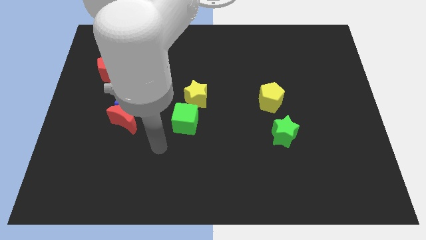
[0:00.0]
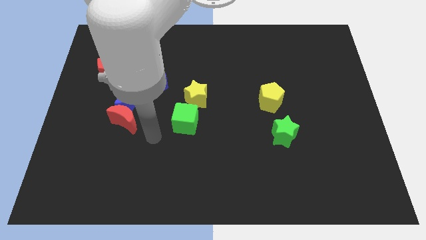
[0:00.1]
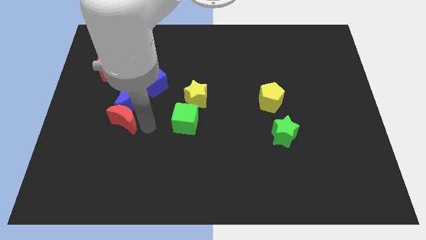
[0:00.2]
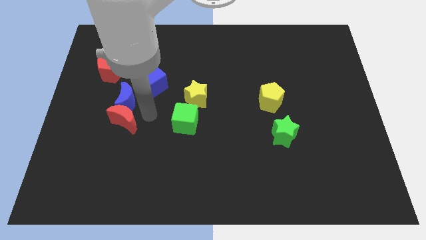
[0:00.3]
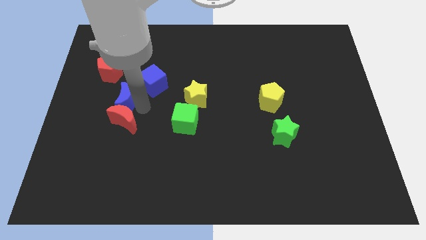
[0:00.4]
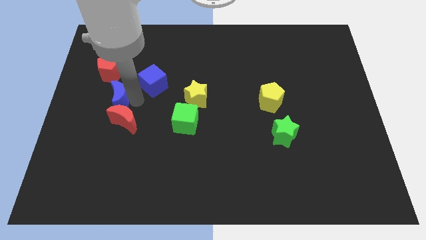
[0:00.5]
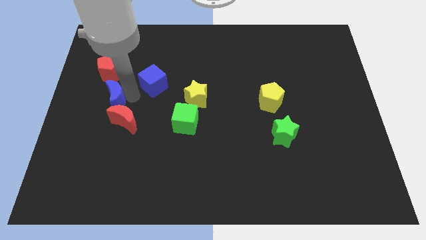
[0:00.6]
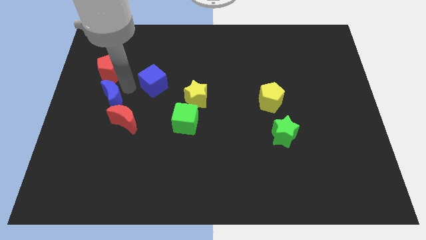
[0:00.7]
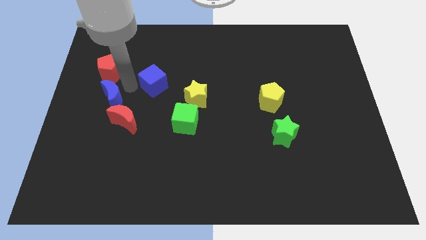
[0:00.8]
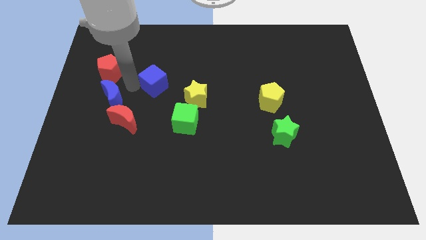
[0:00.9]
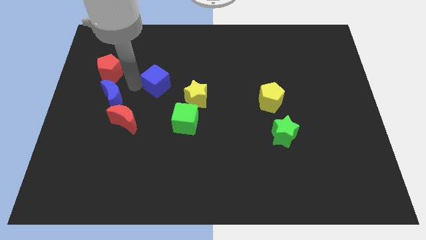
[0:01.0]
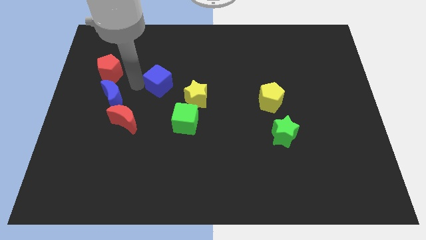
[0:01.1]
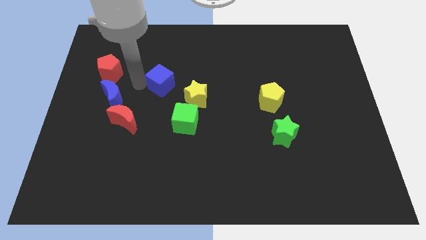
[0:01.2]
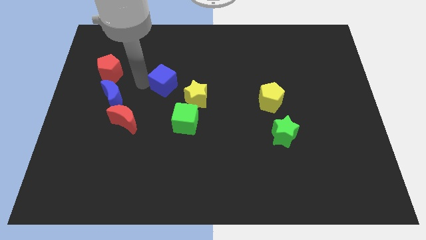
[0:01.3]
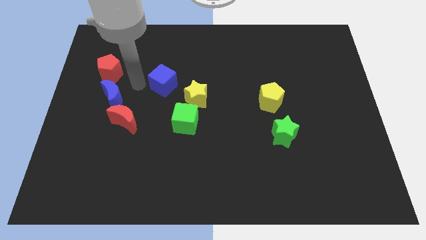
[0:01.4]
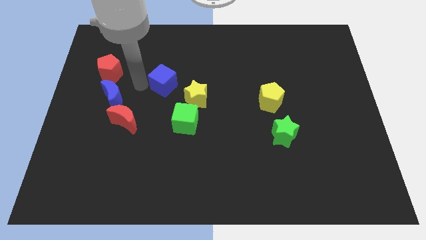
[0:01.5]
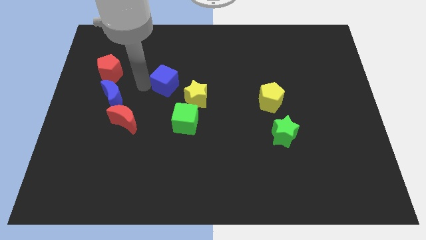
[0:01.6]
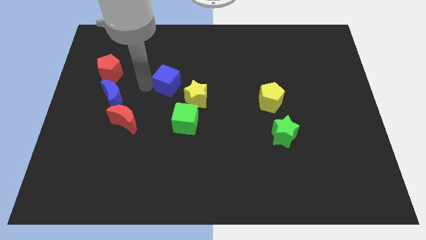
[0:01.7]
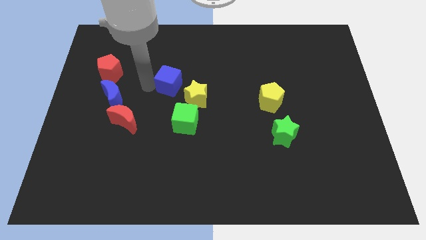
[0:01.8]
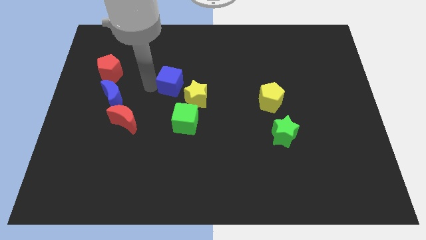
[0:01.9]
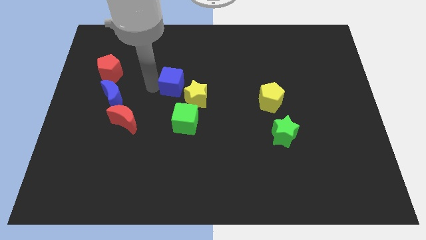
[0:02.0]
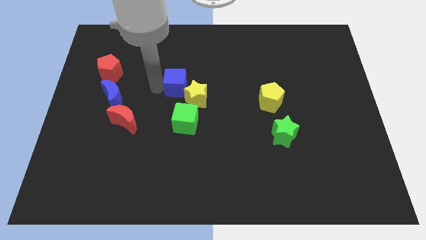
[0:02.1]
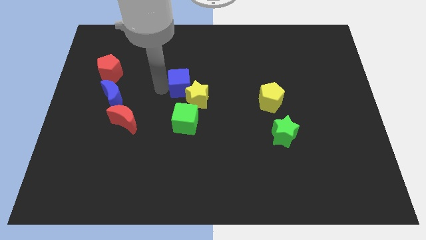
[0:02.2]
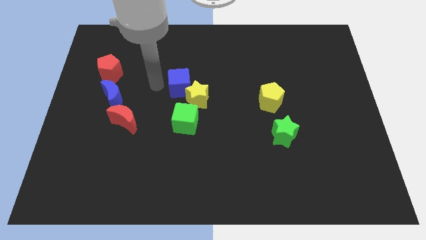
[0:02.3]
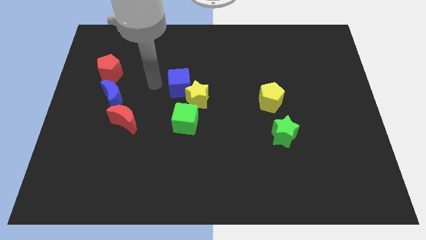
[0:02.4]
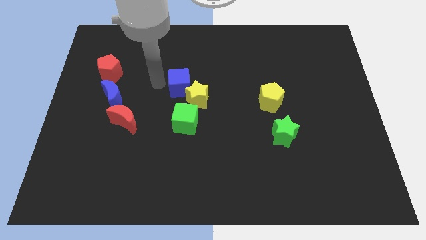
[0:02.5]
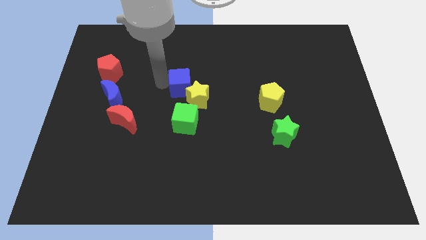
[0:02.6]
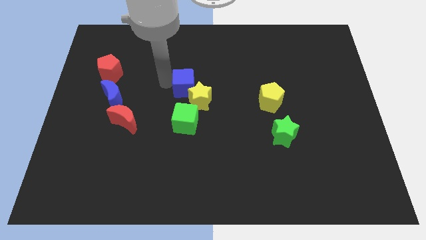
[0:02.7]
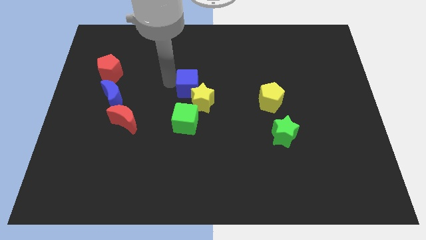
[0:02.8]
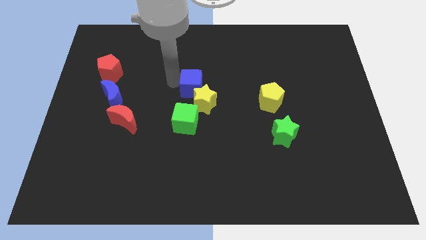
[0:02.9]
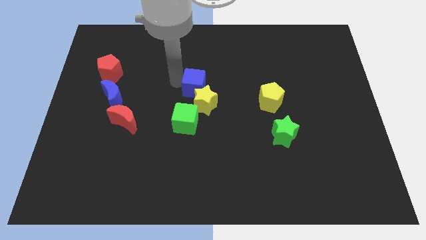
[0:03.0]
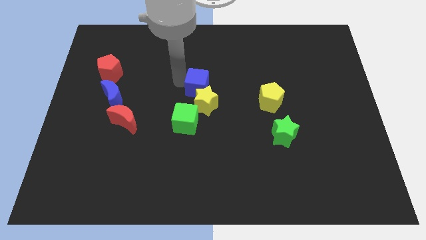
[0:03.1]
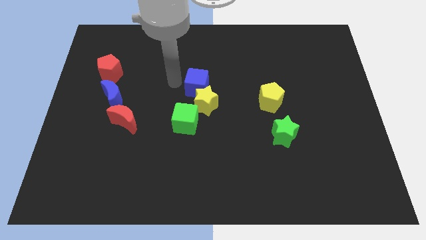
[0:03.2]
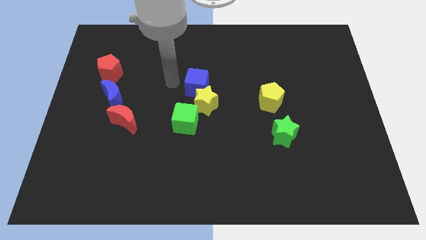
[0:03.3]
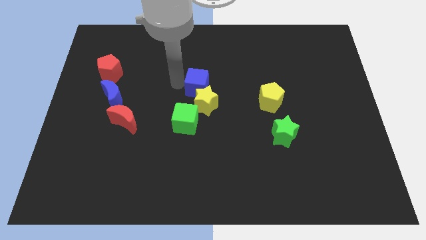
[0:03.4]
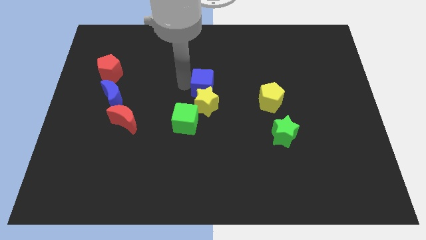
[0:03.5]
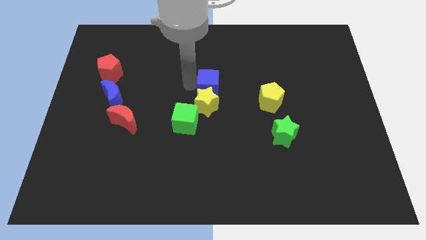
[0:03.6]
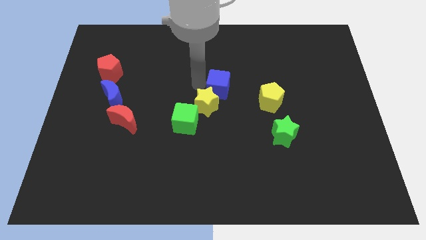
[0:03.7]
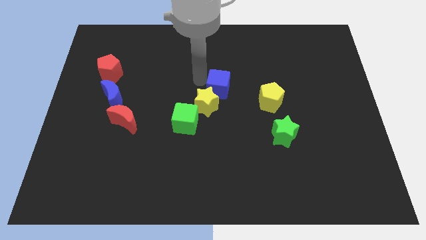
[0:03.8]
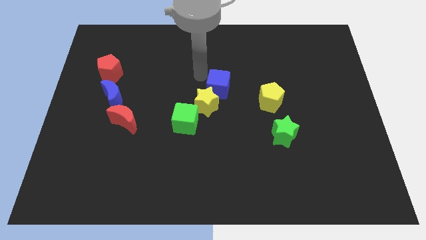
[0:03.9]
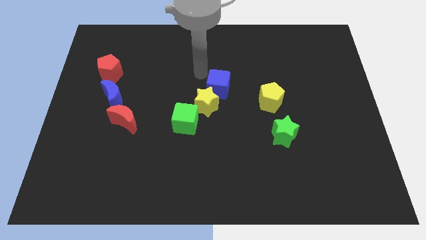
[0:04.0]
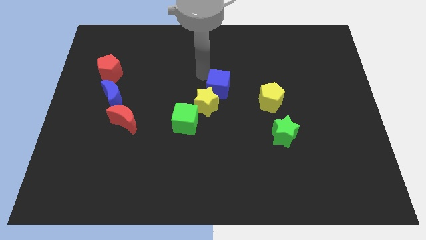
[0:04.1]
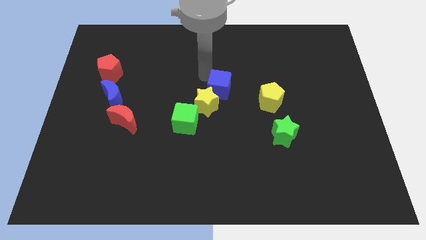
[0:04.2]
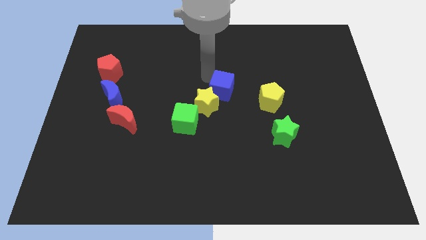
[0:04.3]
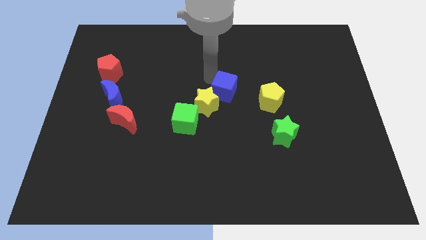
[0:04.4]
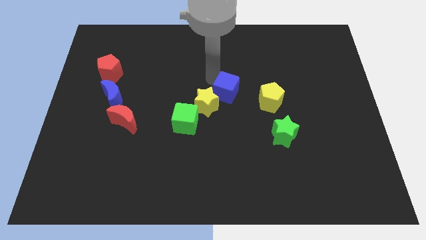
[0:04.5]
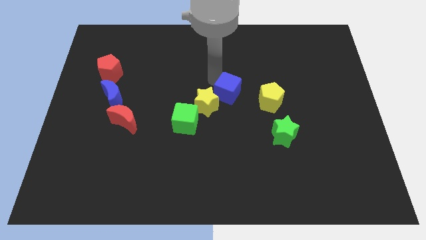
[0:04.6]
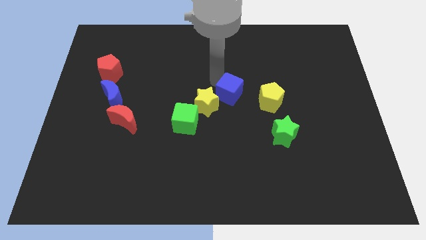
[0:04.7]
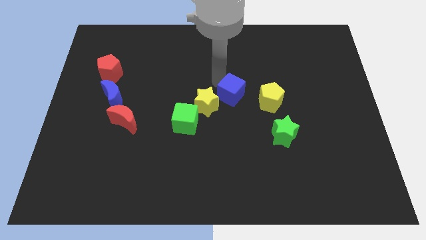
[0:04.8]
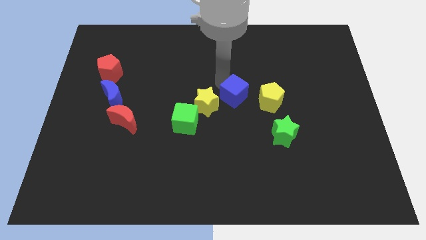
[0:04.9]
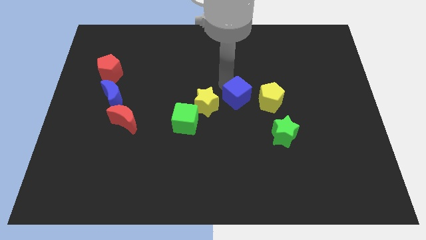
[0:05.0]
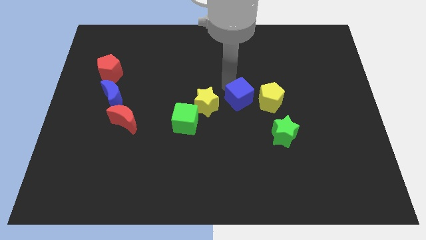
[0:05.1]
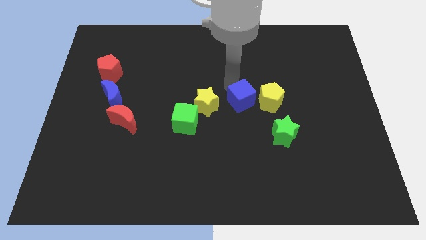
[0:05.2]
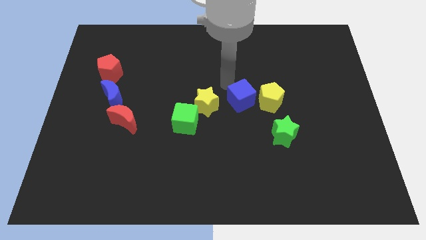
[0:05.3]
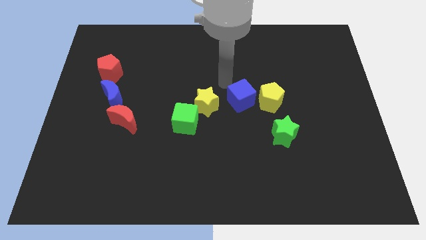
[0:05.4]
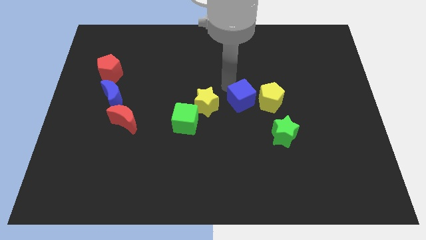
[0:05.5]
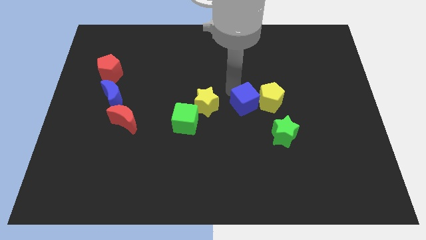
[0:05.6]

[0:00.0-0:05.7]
push the blue cube to the top left side of the green star

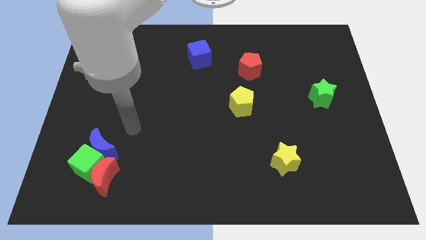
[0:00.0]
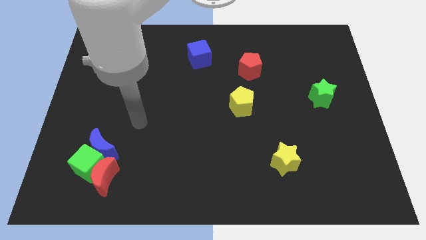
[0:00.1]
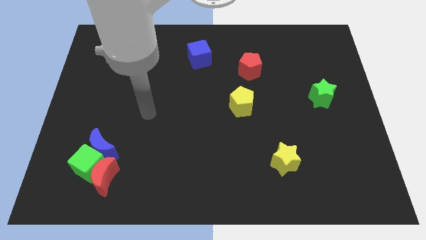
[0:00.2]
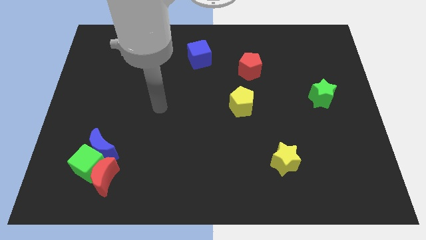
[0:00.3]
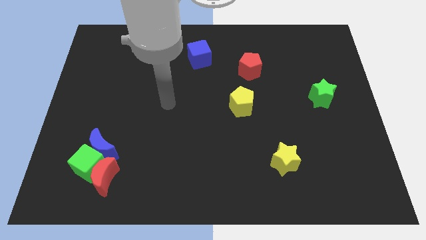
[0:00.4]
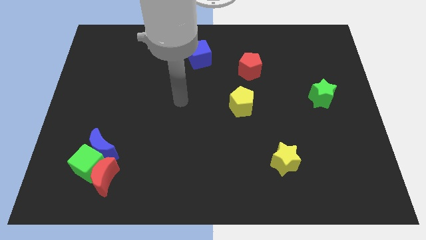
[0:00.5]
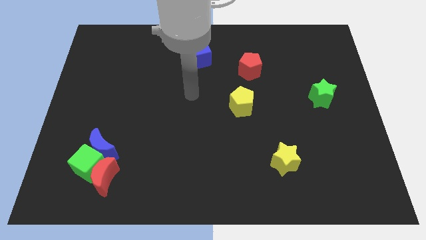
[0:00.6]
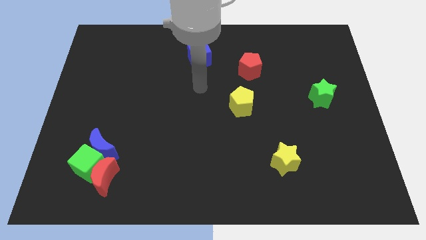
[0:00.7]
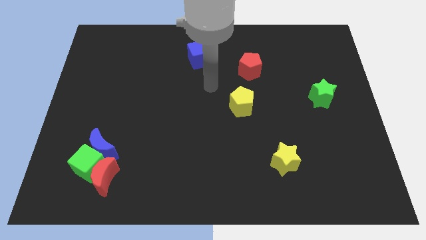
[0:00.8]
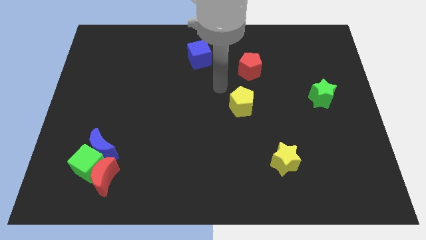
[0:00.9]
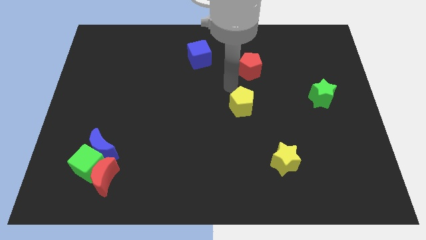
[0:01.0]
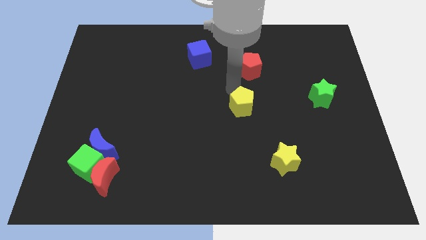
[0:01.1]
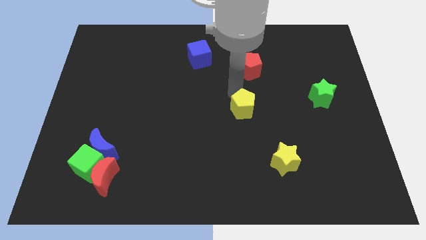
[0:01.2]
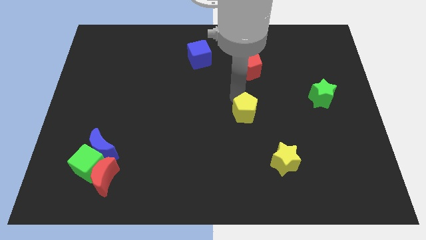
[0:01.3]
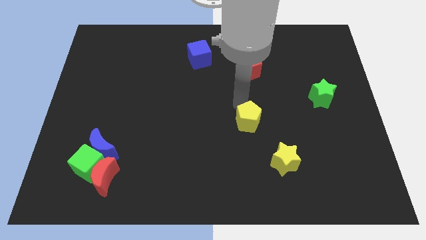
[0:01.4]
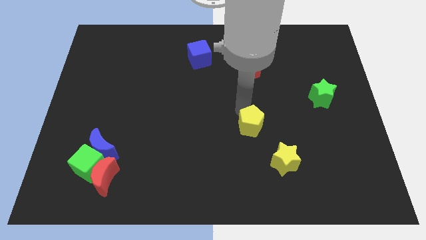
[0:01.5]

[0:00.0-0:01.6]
put the yellow pentagon to the top left side of the yellow star
